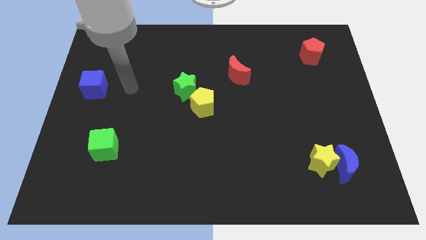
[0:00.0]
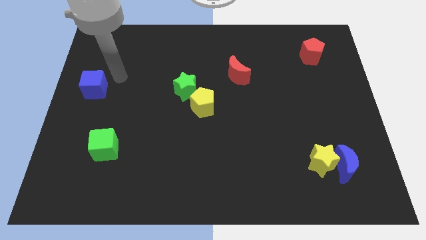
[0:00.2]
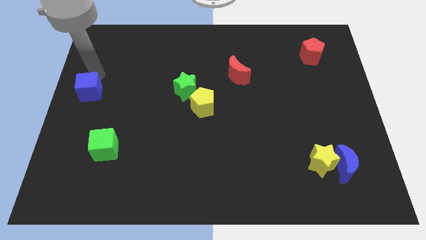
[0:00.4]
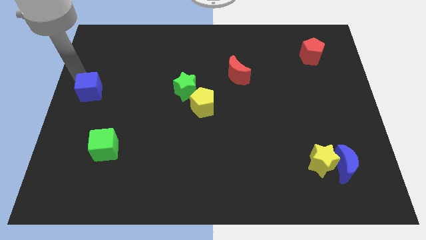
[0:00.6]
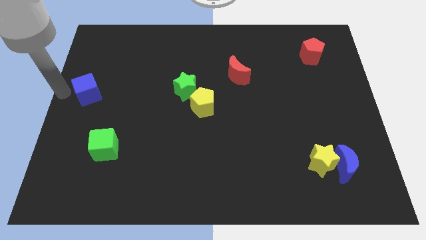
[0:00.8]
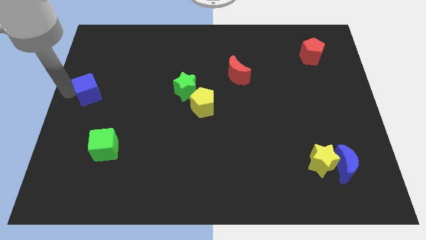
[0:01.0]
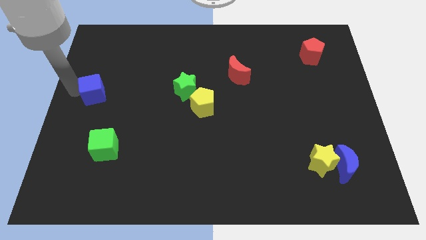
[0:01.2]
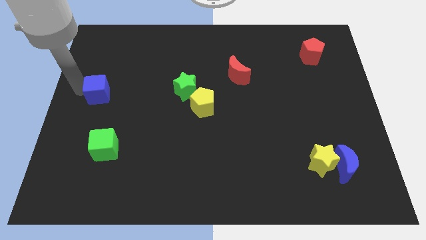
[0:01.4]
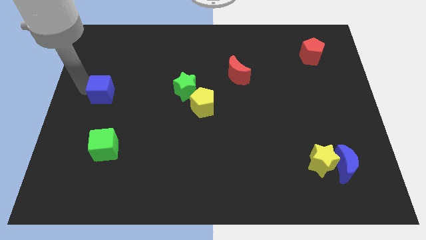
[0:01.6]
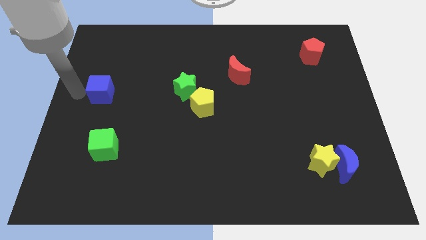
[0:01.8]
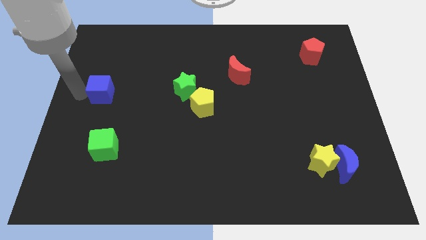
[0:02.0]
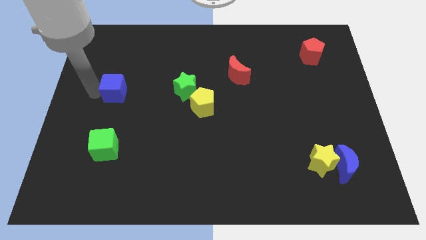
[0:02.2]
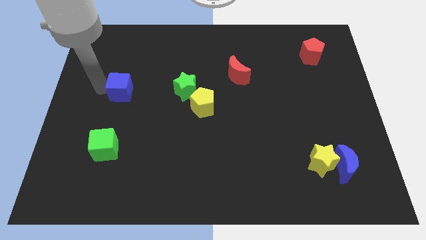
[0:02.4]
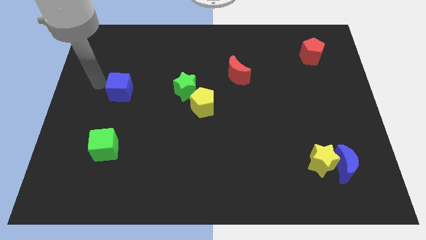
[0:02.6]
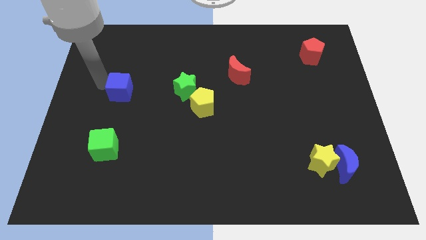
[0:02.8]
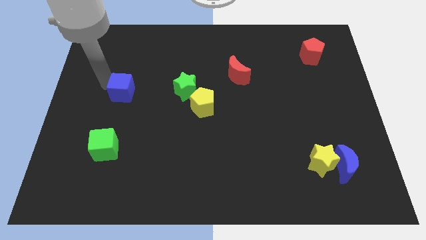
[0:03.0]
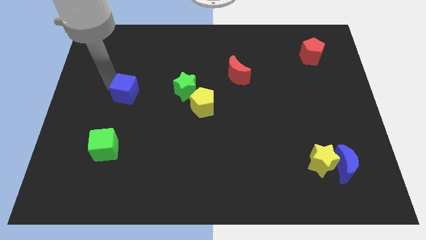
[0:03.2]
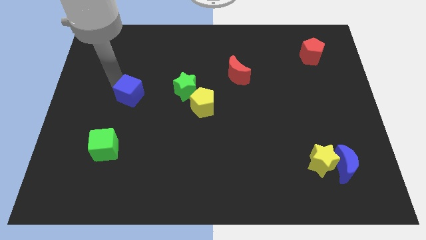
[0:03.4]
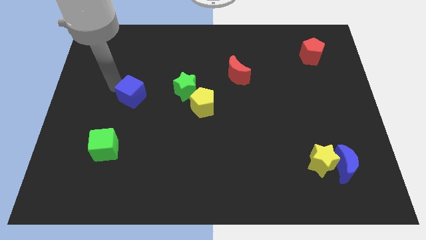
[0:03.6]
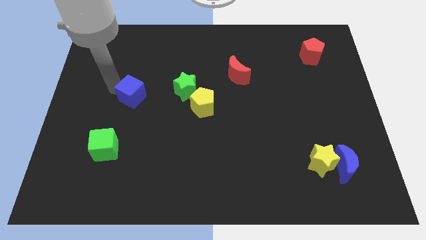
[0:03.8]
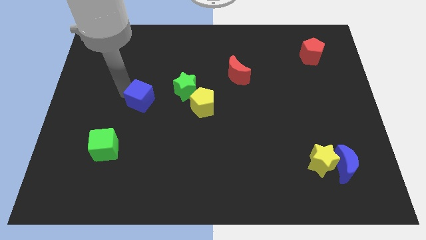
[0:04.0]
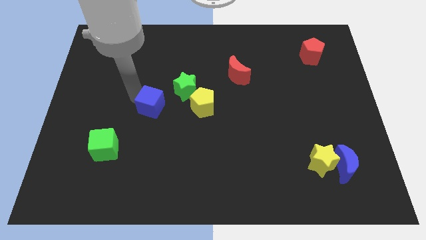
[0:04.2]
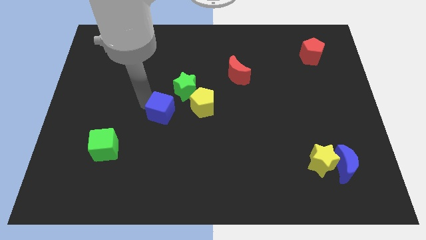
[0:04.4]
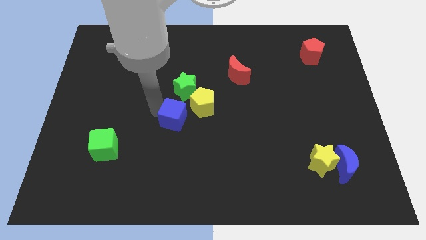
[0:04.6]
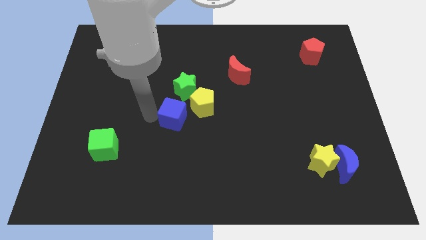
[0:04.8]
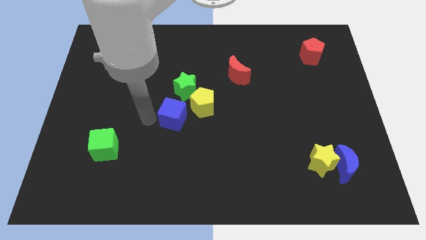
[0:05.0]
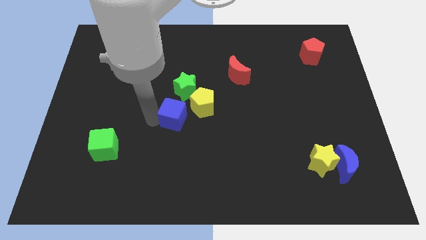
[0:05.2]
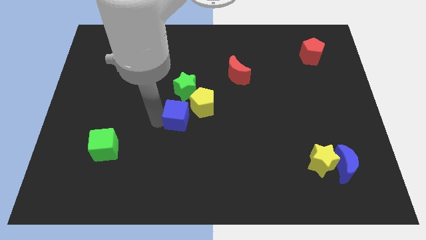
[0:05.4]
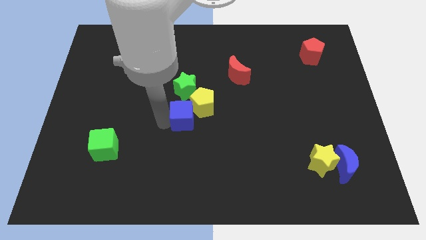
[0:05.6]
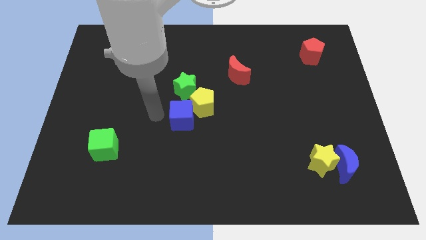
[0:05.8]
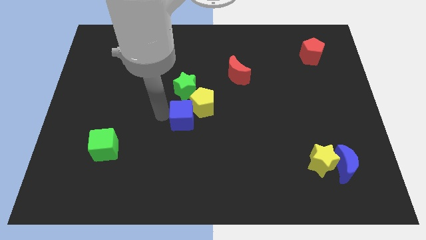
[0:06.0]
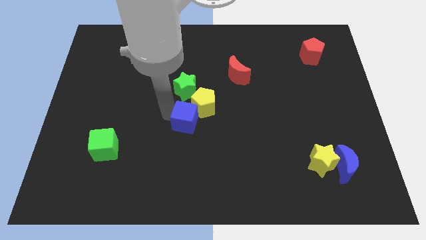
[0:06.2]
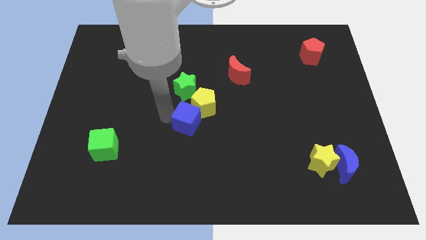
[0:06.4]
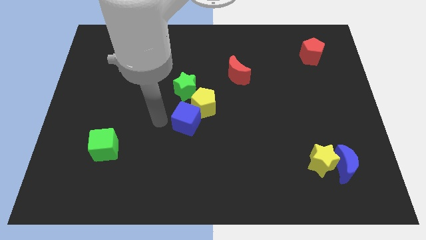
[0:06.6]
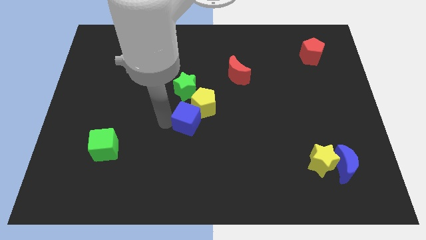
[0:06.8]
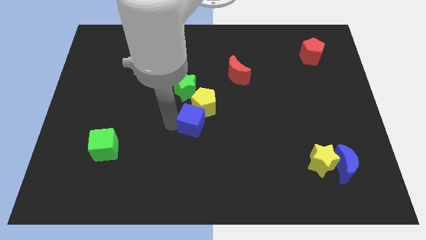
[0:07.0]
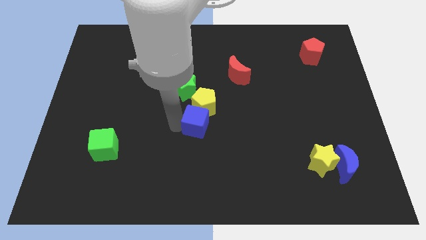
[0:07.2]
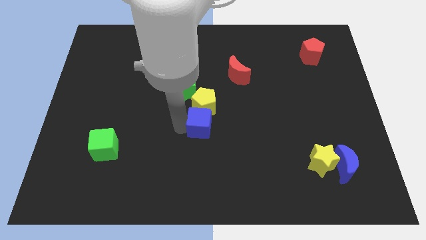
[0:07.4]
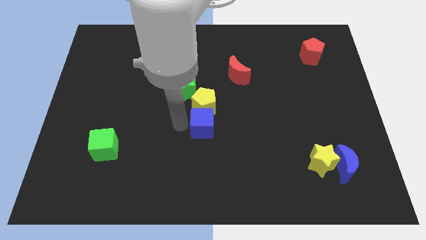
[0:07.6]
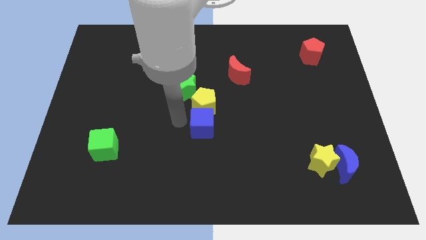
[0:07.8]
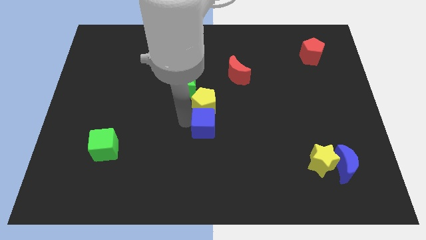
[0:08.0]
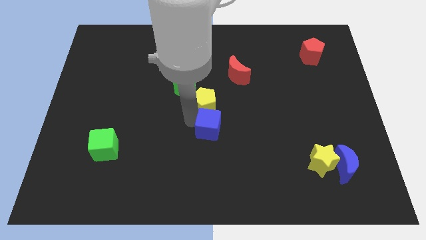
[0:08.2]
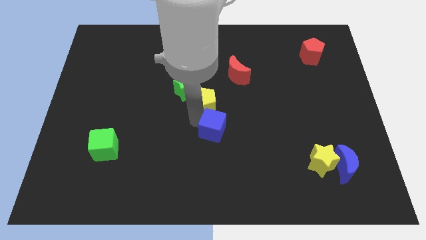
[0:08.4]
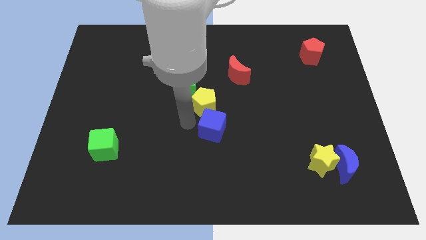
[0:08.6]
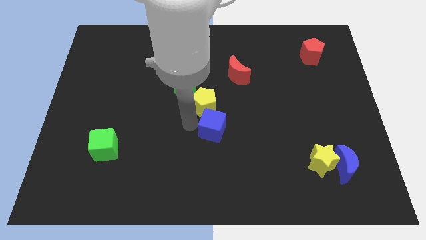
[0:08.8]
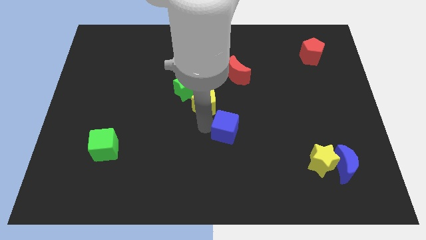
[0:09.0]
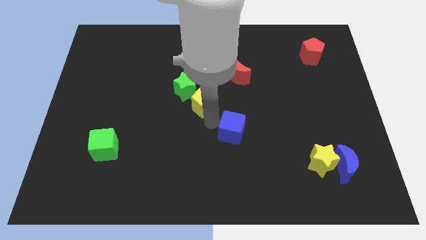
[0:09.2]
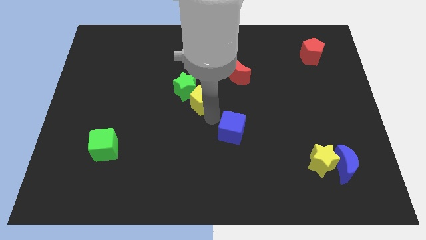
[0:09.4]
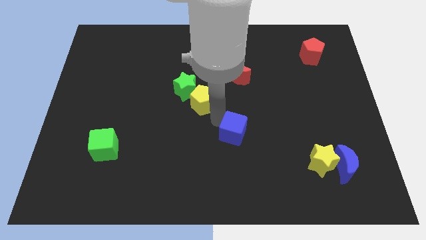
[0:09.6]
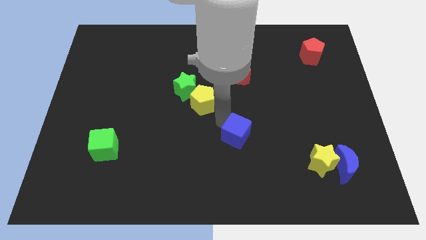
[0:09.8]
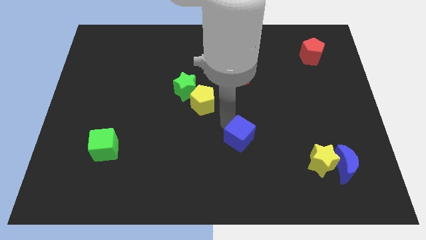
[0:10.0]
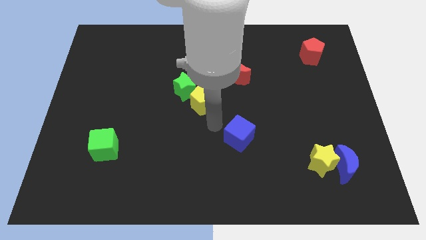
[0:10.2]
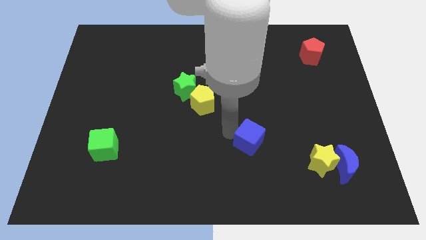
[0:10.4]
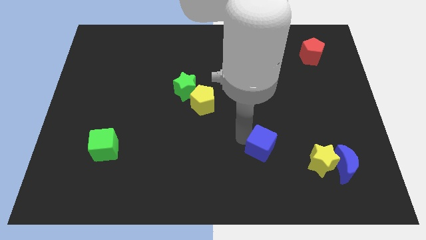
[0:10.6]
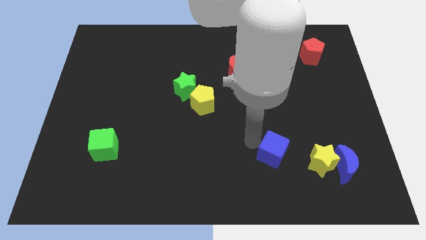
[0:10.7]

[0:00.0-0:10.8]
move the blue cube left of the blue moon

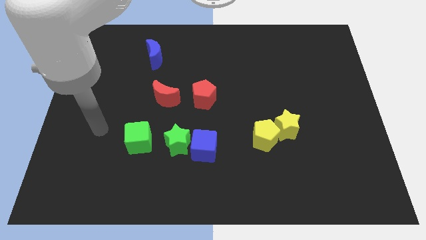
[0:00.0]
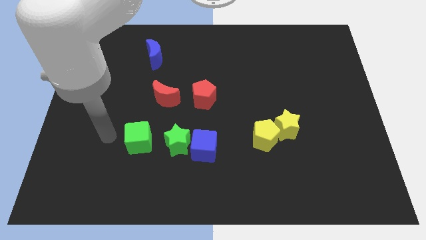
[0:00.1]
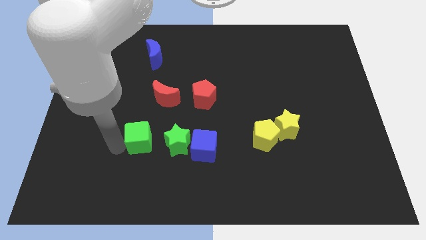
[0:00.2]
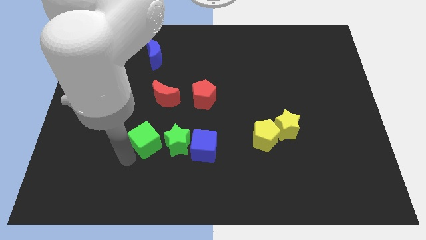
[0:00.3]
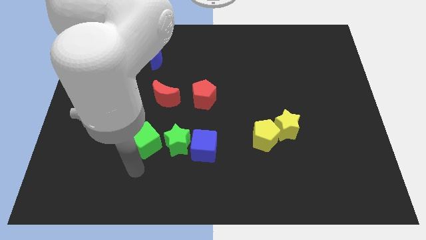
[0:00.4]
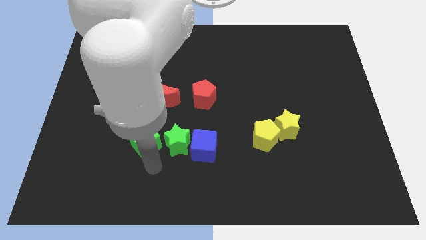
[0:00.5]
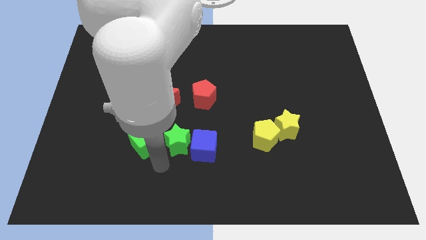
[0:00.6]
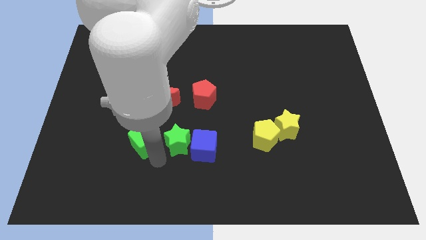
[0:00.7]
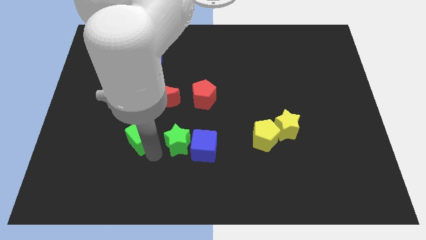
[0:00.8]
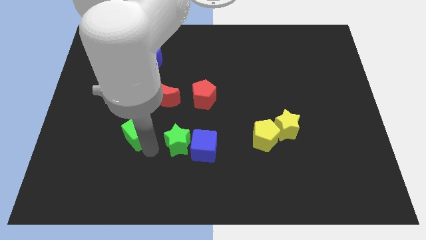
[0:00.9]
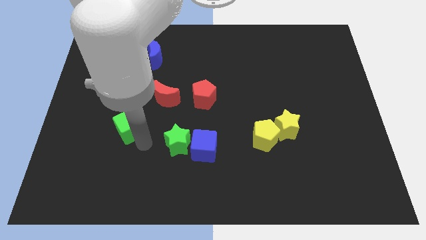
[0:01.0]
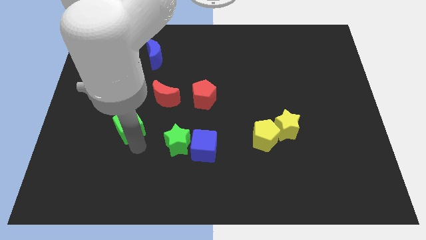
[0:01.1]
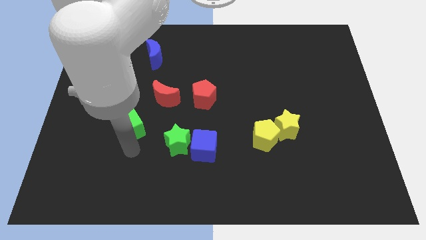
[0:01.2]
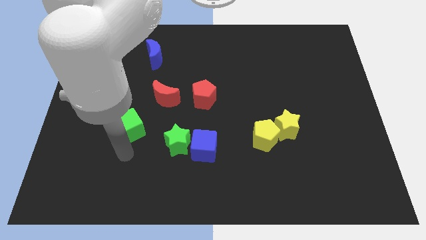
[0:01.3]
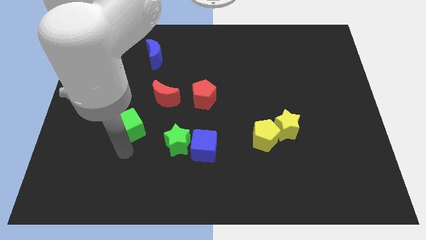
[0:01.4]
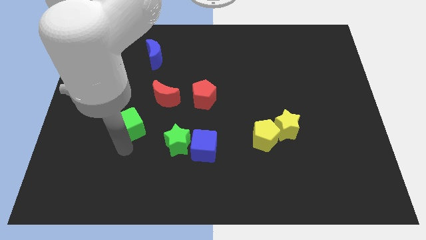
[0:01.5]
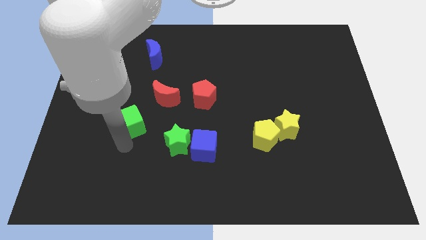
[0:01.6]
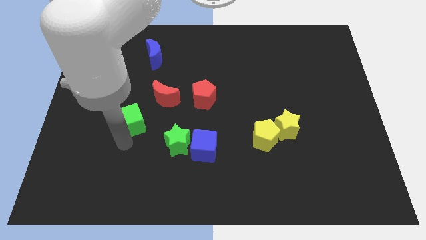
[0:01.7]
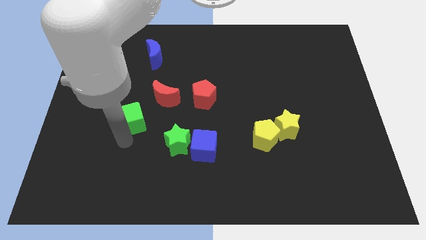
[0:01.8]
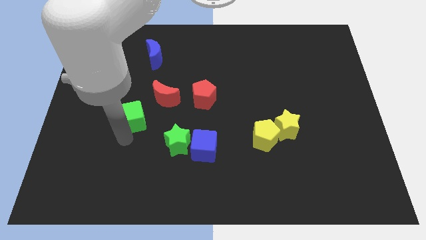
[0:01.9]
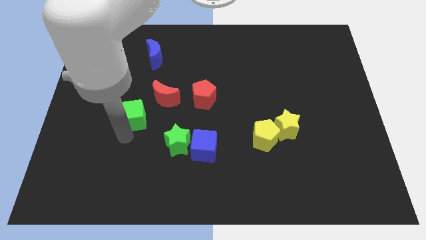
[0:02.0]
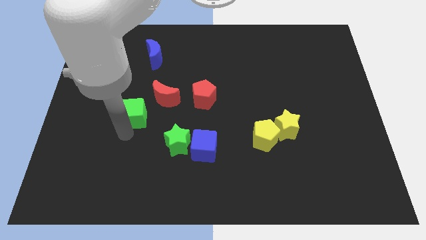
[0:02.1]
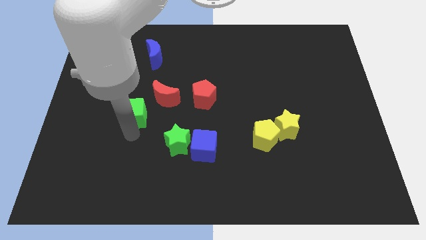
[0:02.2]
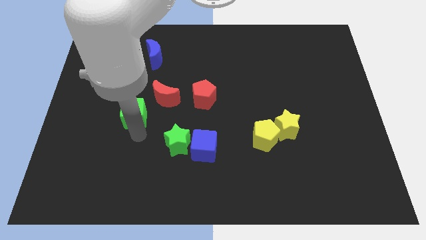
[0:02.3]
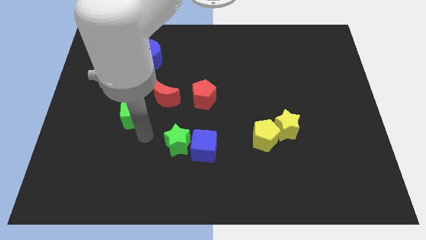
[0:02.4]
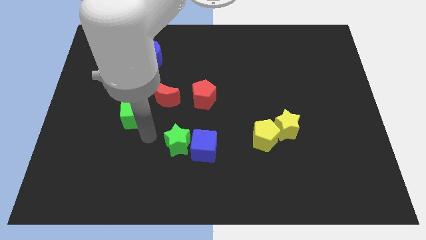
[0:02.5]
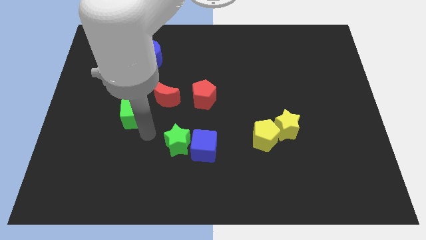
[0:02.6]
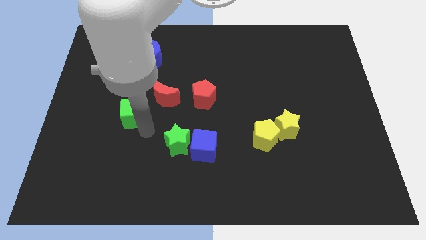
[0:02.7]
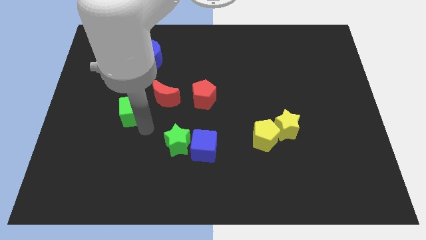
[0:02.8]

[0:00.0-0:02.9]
move the green cube just left of the red moon
